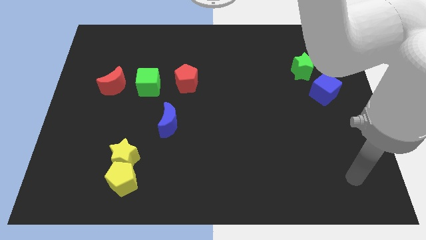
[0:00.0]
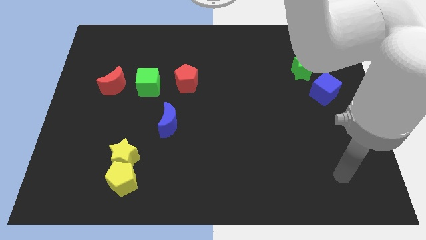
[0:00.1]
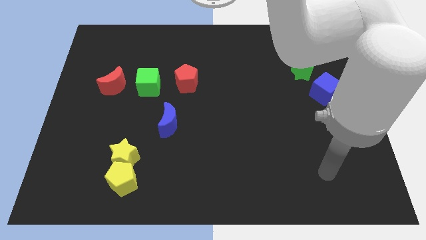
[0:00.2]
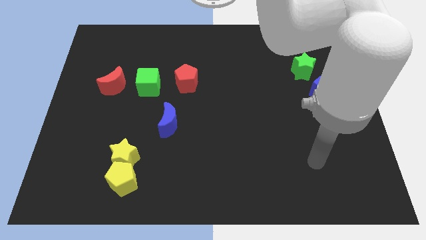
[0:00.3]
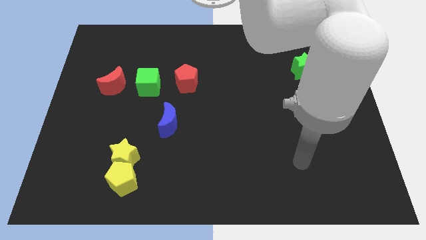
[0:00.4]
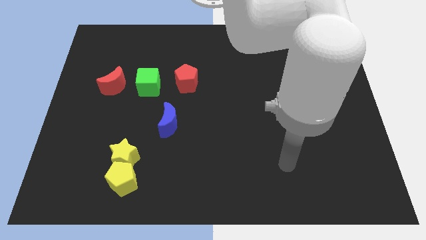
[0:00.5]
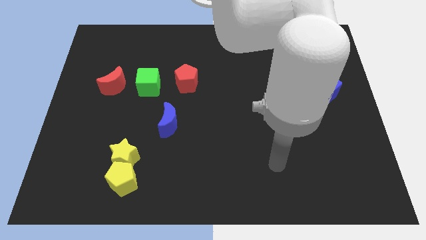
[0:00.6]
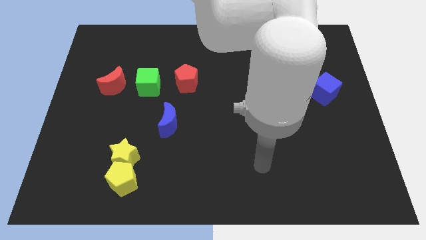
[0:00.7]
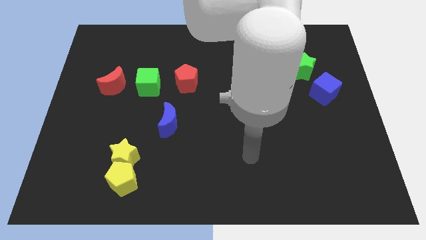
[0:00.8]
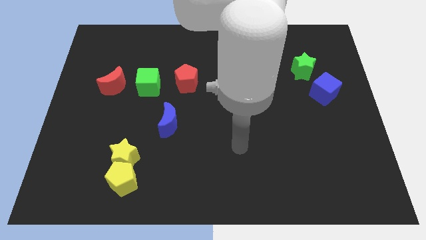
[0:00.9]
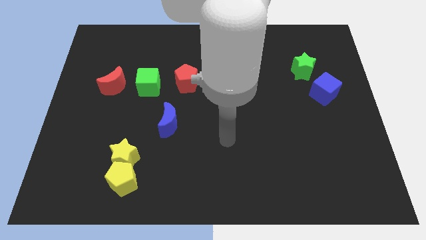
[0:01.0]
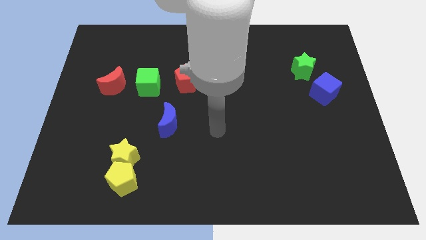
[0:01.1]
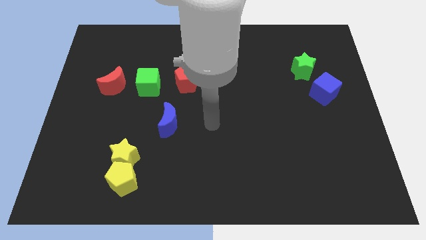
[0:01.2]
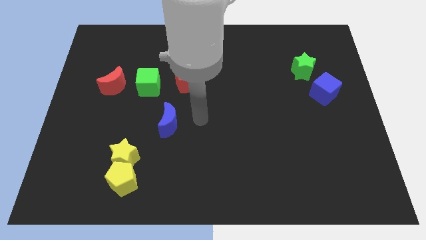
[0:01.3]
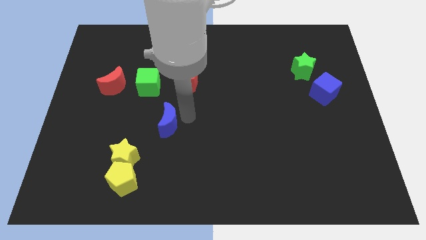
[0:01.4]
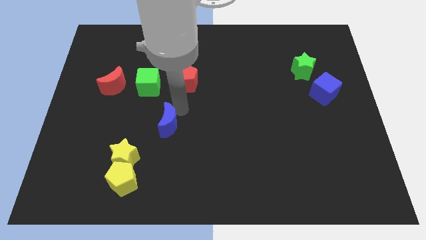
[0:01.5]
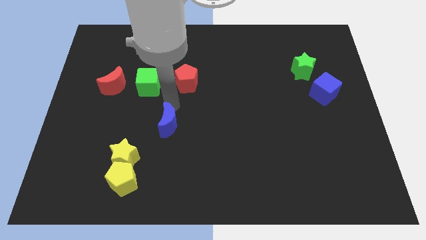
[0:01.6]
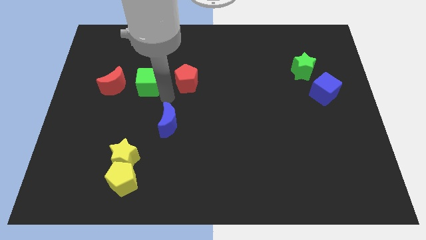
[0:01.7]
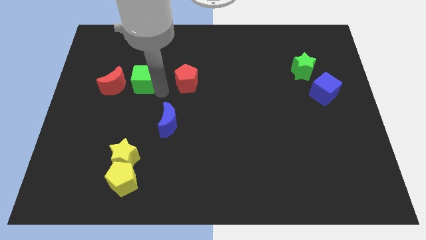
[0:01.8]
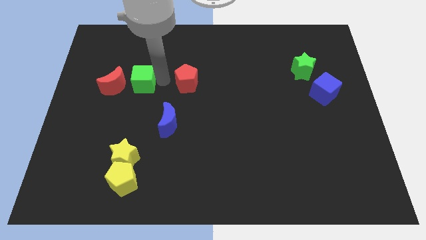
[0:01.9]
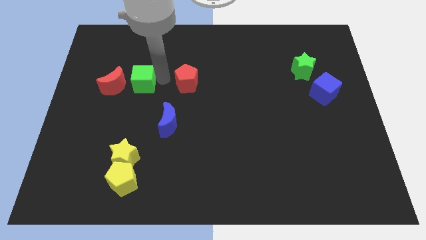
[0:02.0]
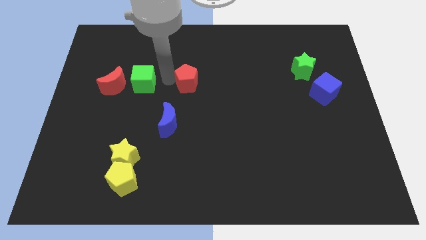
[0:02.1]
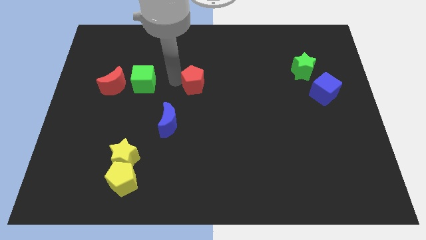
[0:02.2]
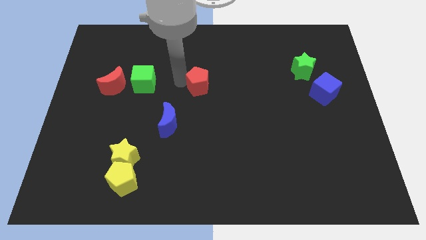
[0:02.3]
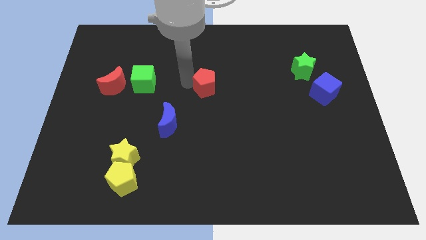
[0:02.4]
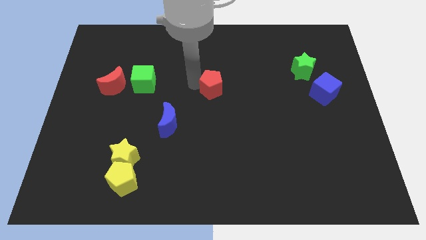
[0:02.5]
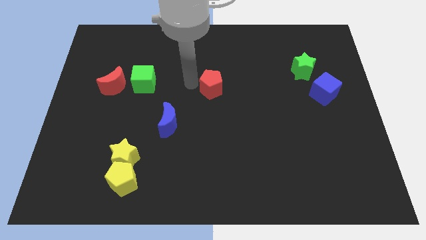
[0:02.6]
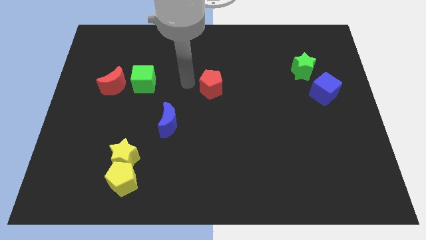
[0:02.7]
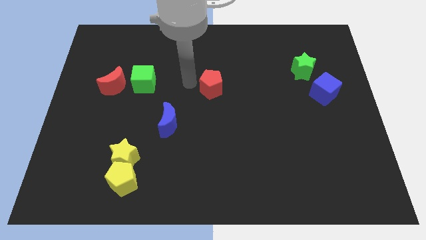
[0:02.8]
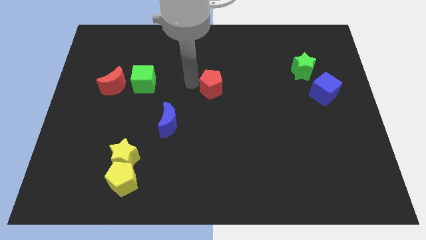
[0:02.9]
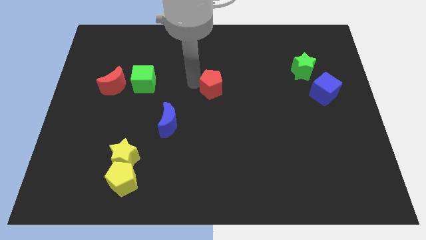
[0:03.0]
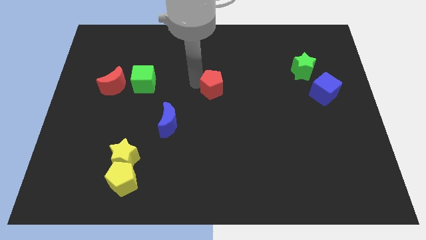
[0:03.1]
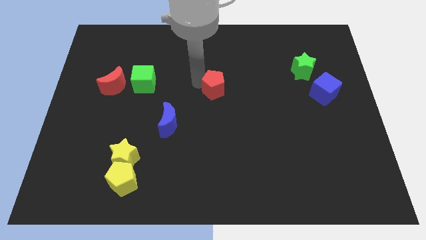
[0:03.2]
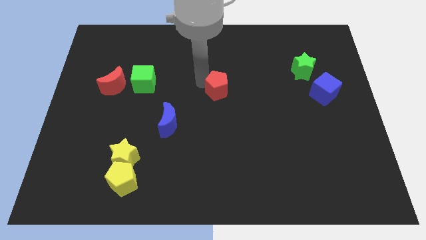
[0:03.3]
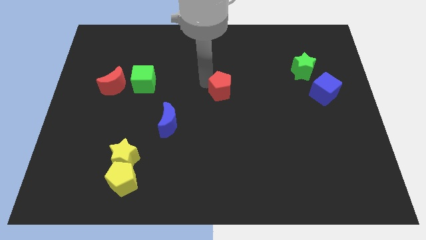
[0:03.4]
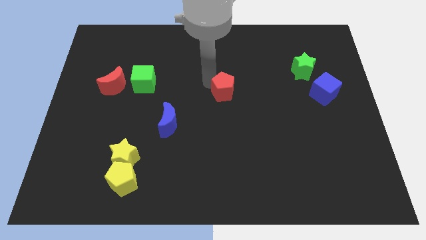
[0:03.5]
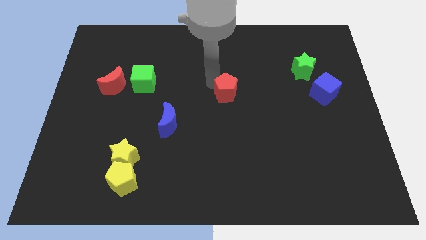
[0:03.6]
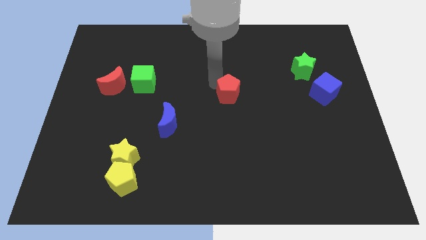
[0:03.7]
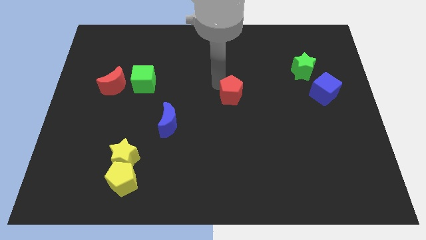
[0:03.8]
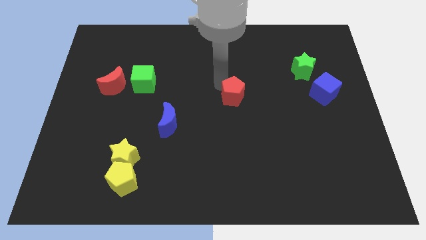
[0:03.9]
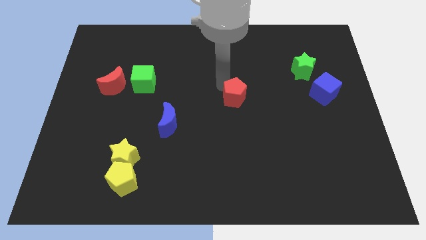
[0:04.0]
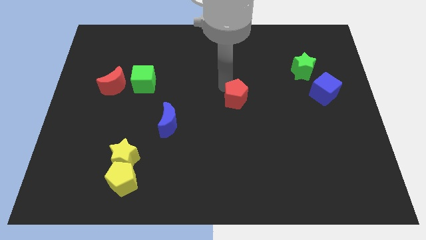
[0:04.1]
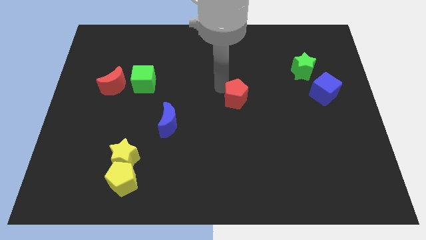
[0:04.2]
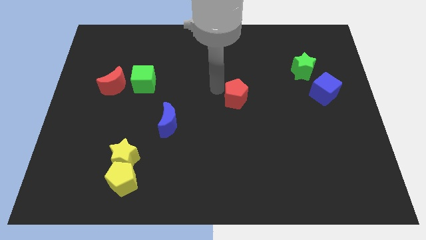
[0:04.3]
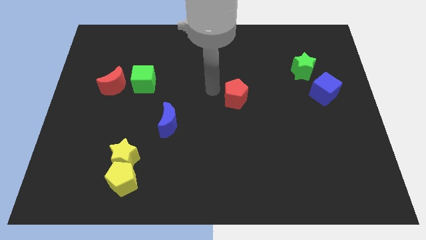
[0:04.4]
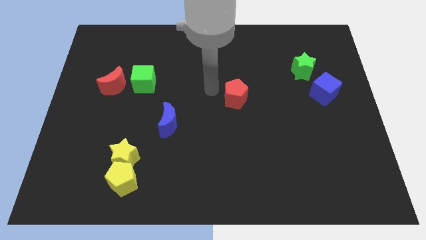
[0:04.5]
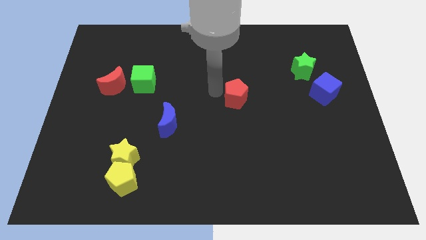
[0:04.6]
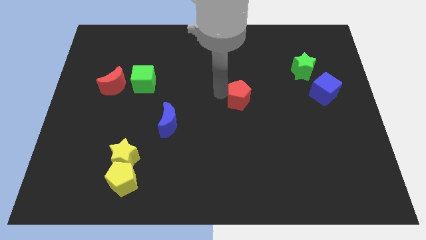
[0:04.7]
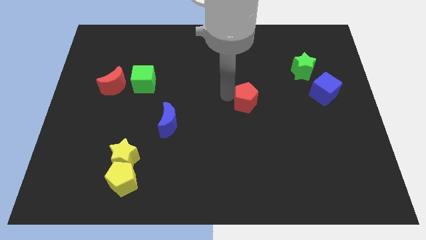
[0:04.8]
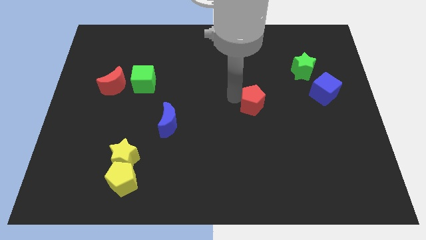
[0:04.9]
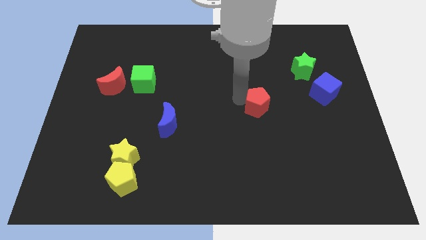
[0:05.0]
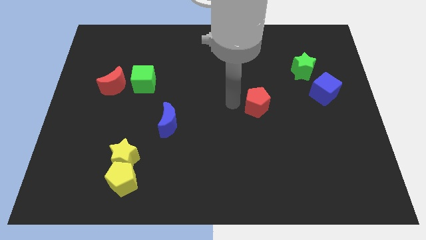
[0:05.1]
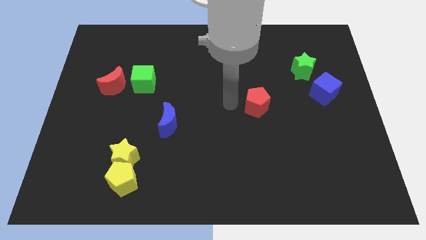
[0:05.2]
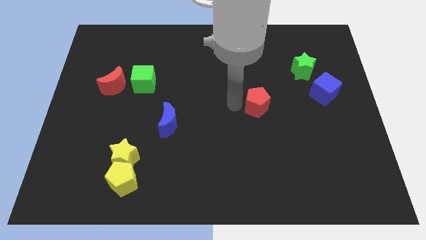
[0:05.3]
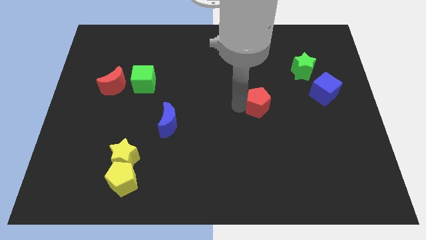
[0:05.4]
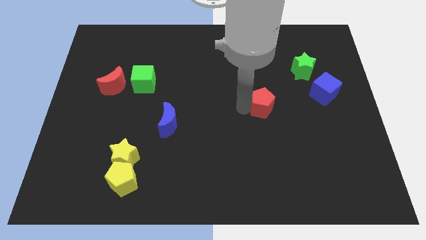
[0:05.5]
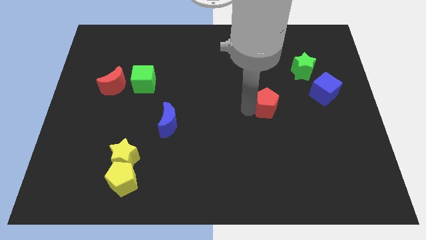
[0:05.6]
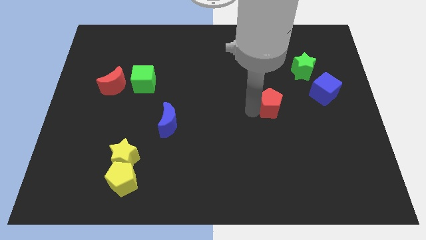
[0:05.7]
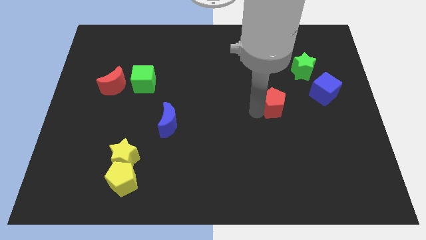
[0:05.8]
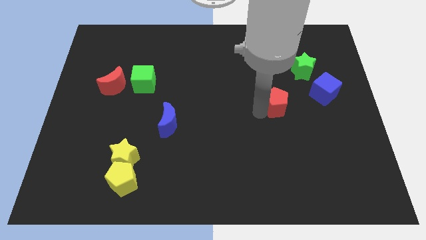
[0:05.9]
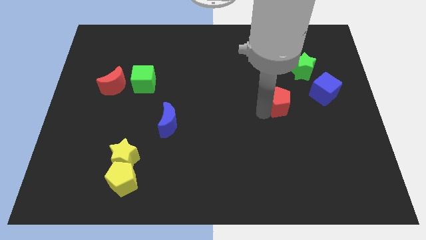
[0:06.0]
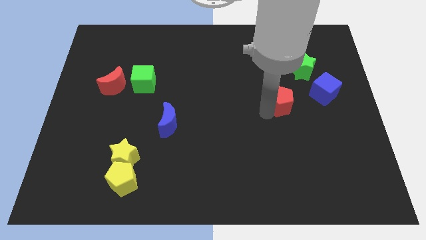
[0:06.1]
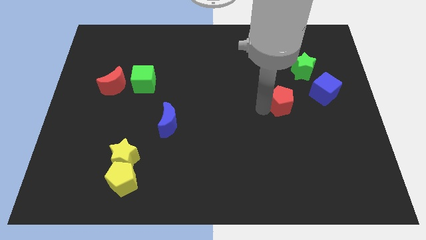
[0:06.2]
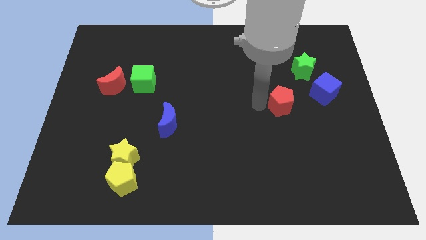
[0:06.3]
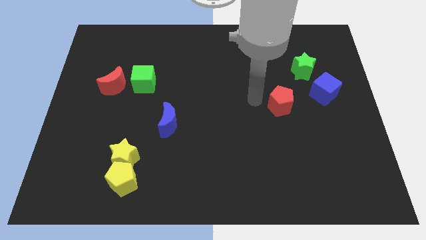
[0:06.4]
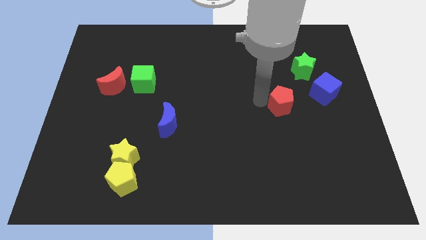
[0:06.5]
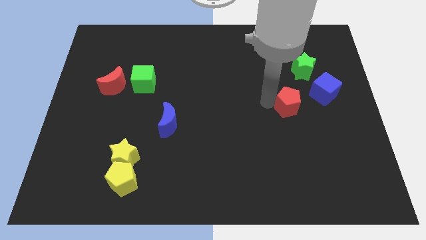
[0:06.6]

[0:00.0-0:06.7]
put the red pentagon to the bottom left side of the blue cube

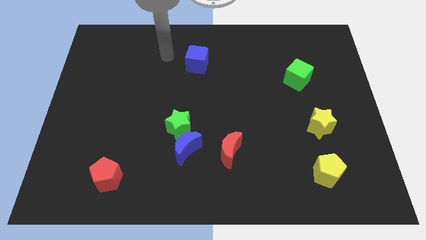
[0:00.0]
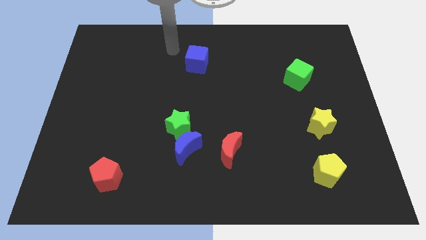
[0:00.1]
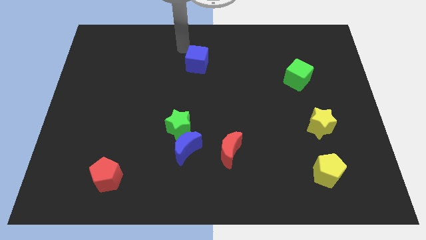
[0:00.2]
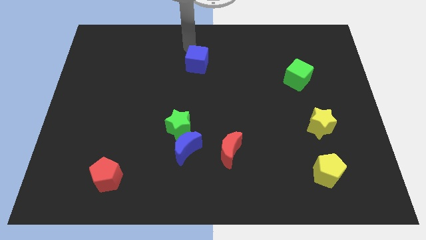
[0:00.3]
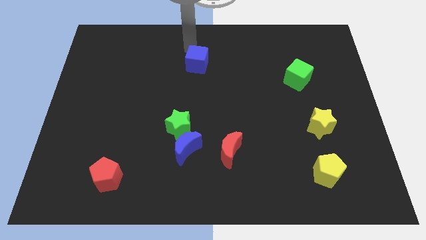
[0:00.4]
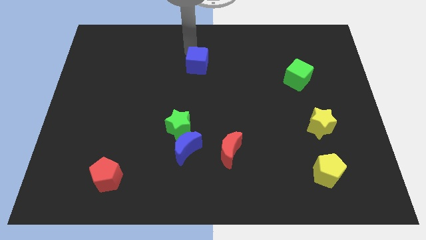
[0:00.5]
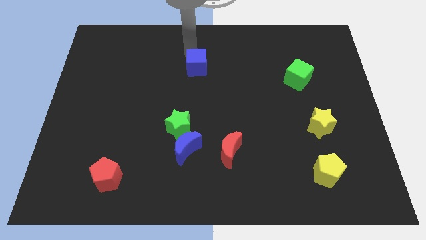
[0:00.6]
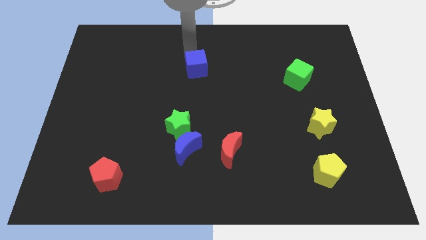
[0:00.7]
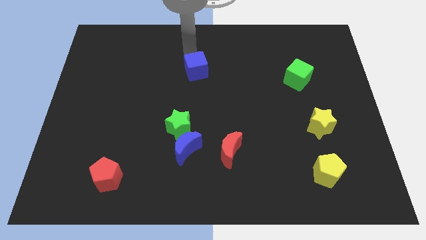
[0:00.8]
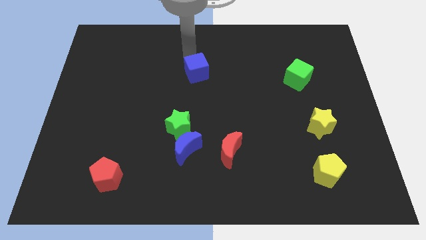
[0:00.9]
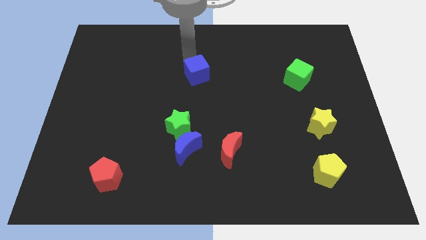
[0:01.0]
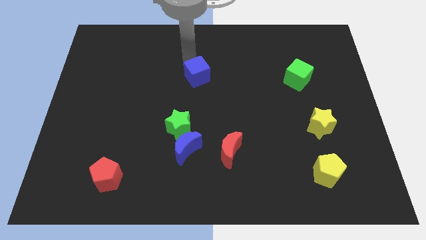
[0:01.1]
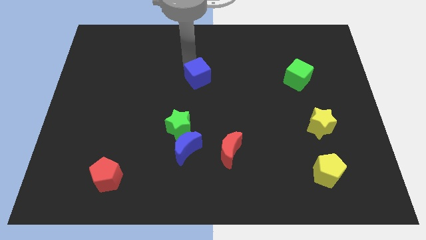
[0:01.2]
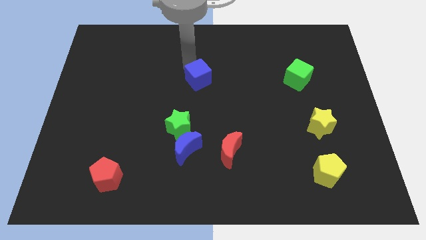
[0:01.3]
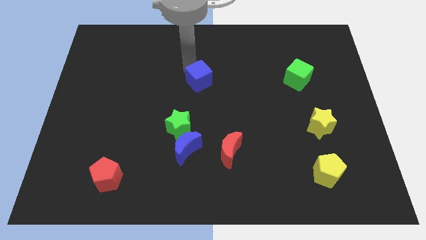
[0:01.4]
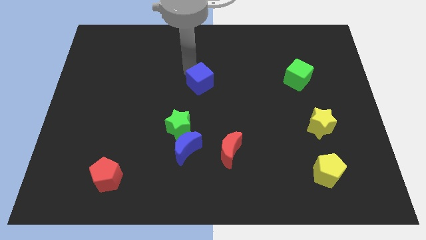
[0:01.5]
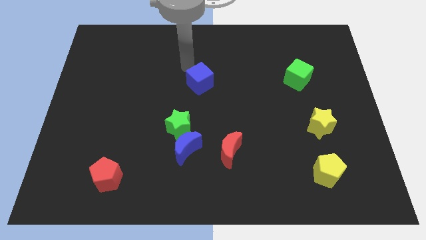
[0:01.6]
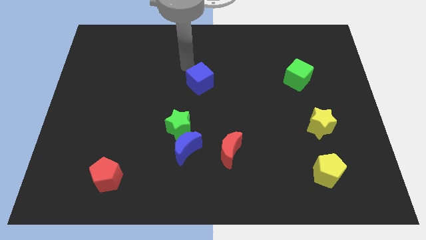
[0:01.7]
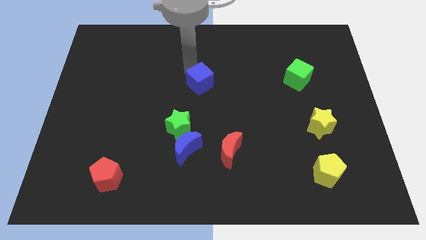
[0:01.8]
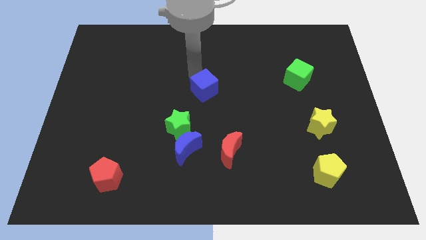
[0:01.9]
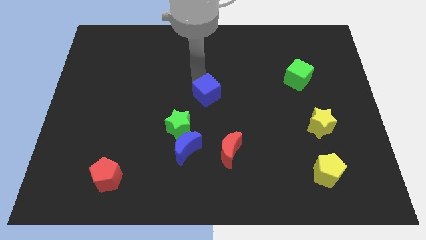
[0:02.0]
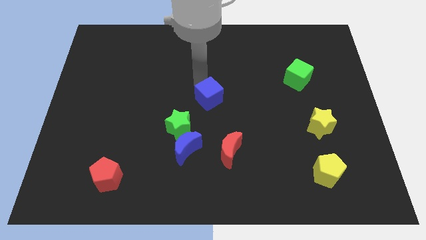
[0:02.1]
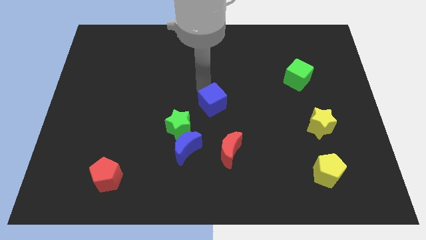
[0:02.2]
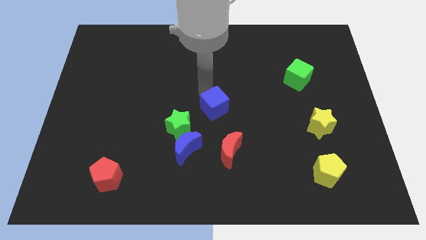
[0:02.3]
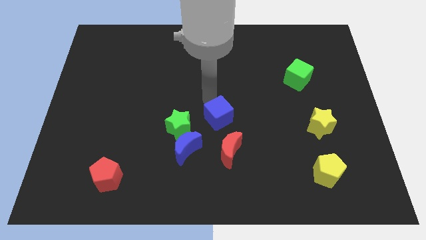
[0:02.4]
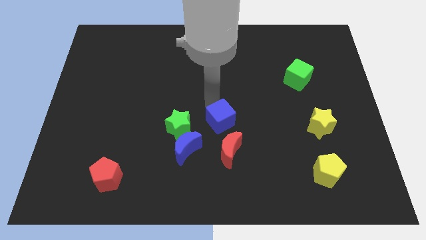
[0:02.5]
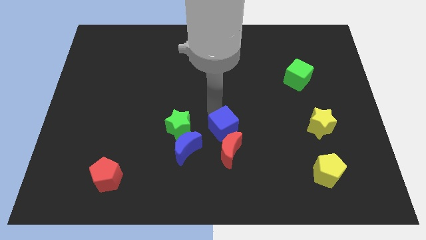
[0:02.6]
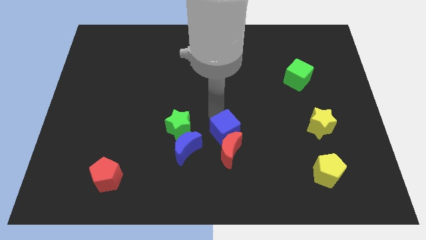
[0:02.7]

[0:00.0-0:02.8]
slide the blue cube just right of the blue moon
